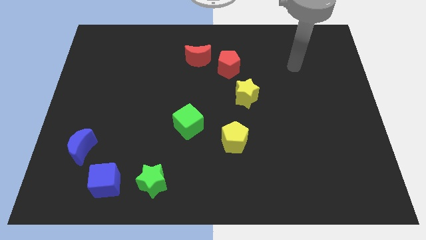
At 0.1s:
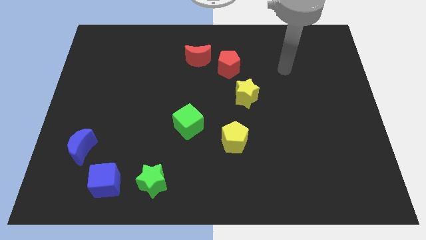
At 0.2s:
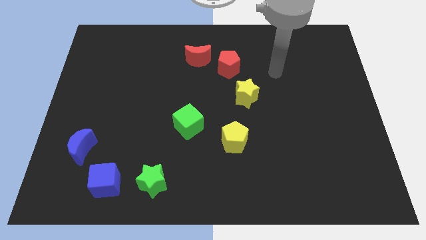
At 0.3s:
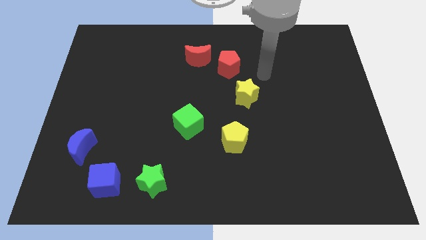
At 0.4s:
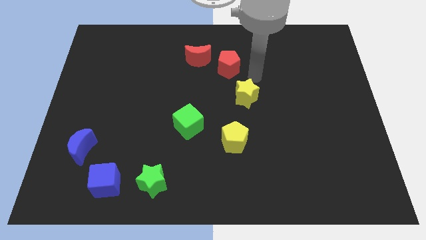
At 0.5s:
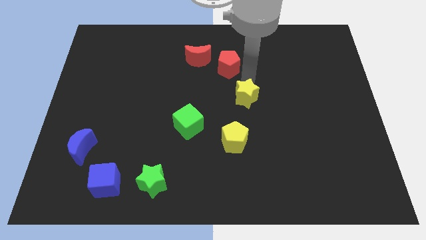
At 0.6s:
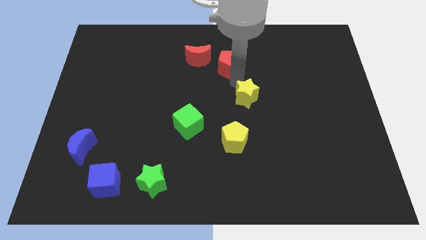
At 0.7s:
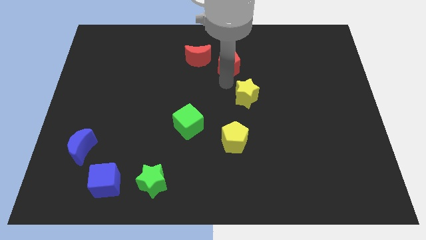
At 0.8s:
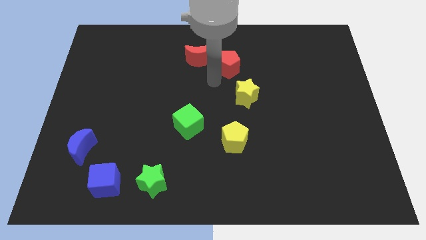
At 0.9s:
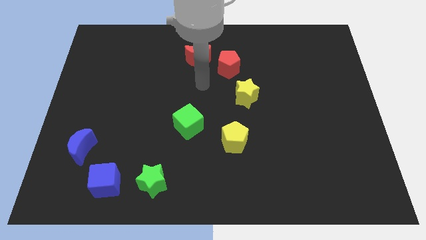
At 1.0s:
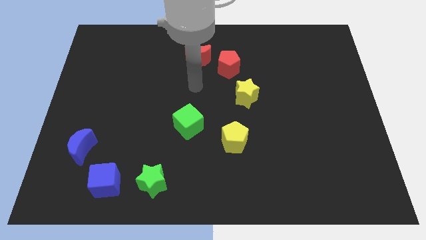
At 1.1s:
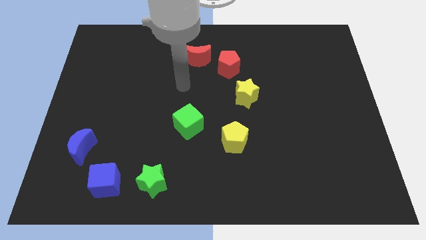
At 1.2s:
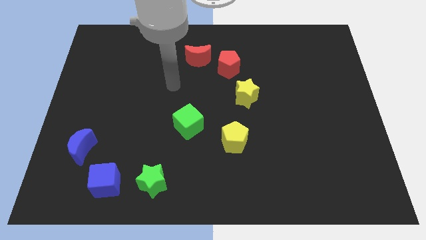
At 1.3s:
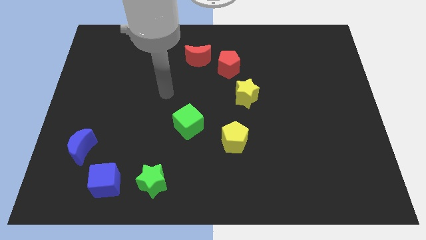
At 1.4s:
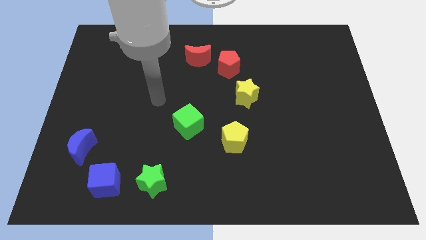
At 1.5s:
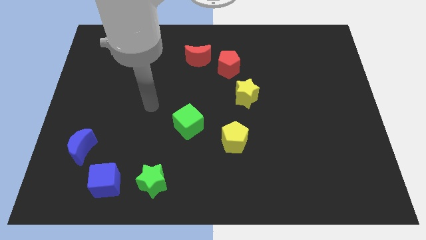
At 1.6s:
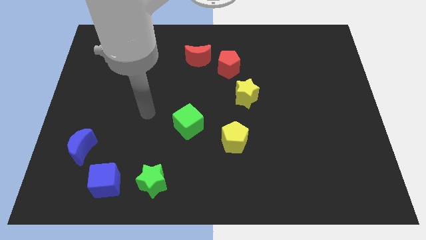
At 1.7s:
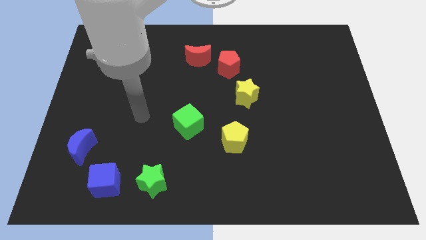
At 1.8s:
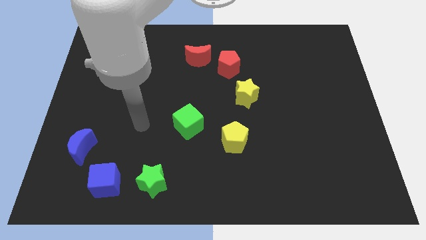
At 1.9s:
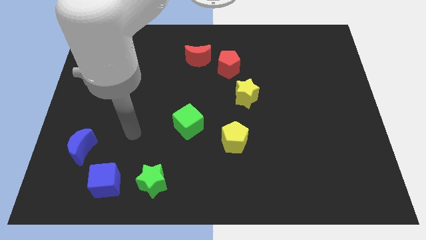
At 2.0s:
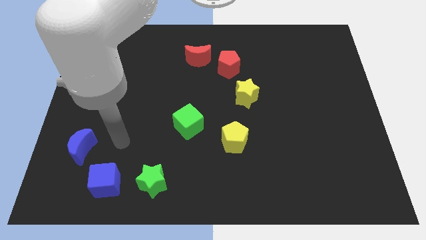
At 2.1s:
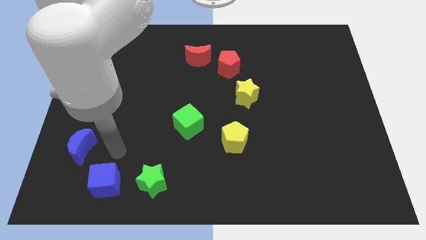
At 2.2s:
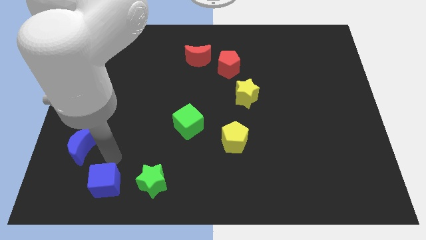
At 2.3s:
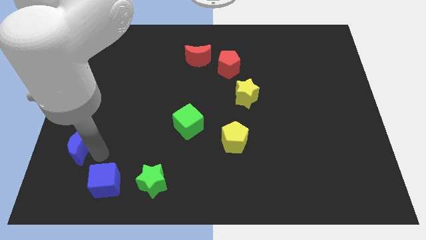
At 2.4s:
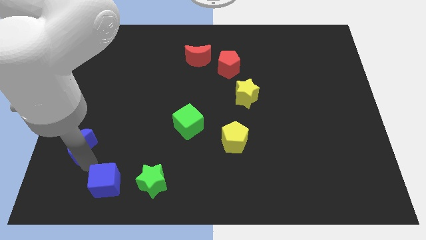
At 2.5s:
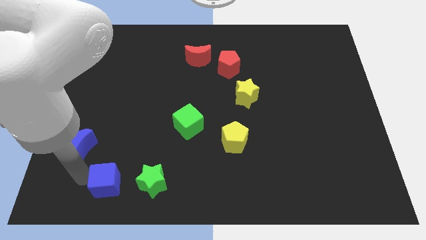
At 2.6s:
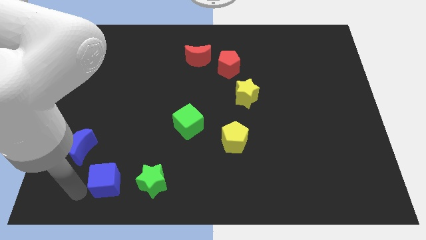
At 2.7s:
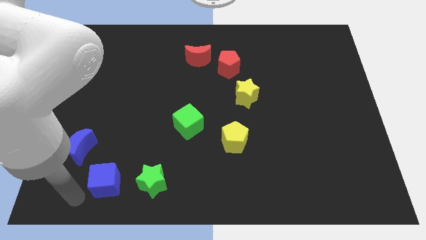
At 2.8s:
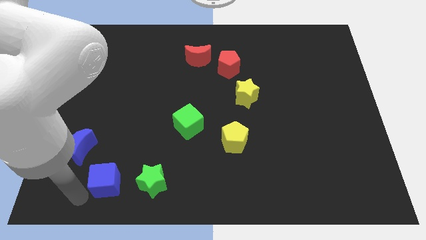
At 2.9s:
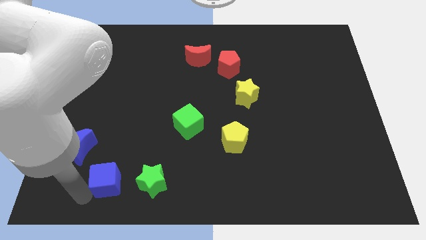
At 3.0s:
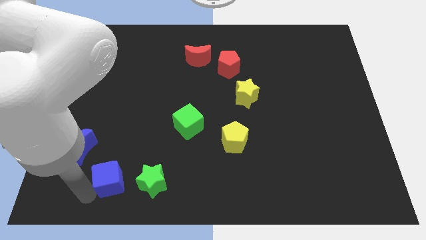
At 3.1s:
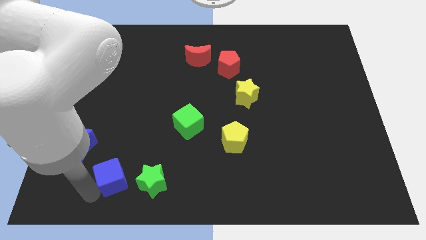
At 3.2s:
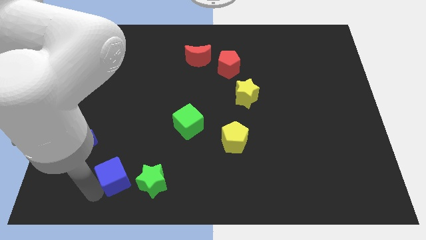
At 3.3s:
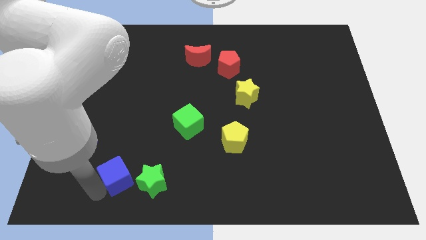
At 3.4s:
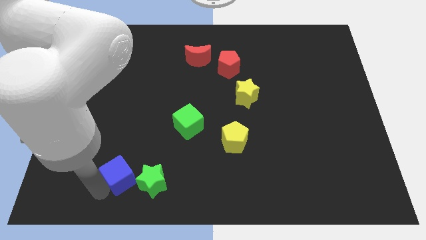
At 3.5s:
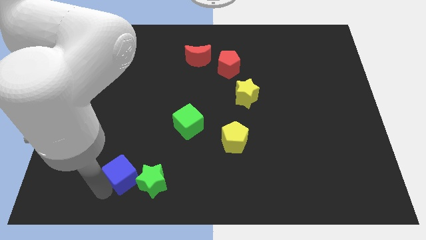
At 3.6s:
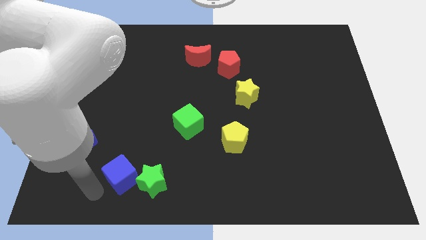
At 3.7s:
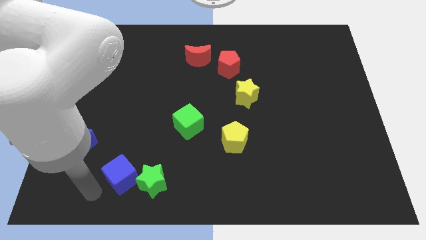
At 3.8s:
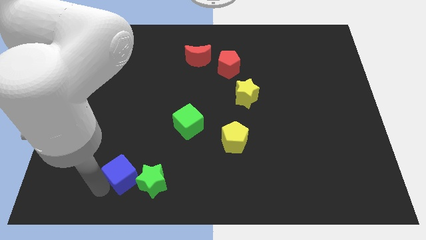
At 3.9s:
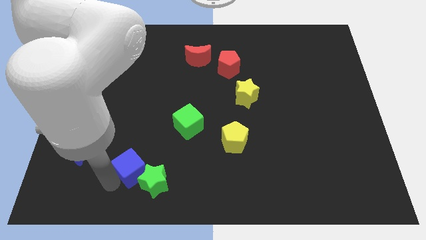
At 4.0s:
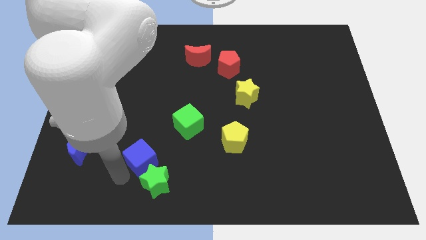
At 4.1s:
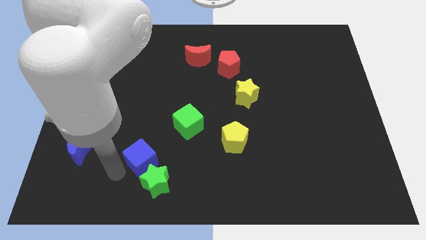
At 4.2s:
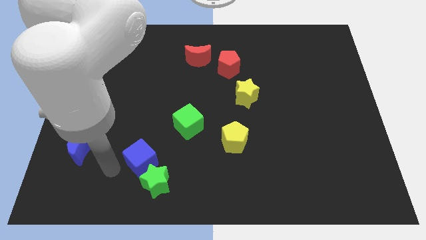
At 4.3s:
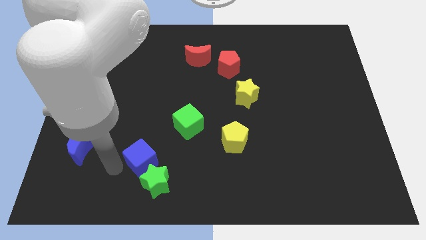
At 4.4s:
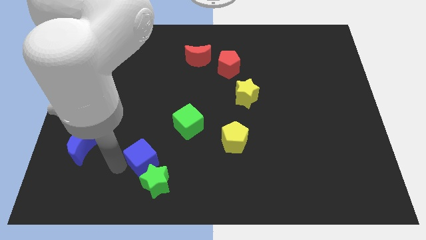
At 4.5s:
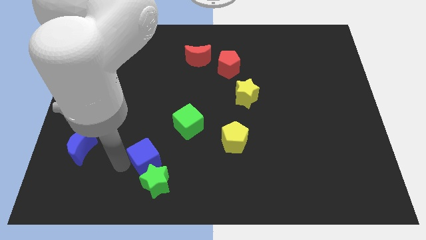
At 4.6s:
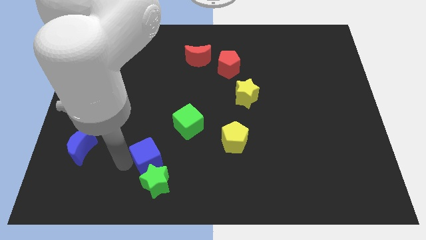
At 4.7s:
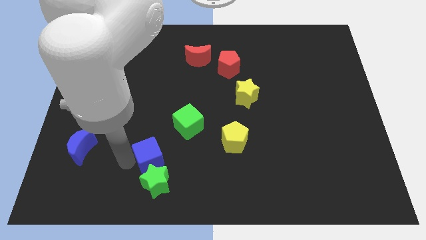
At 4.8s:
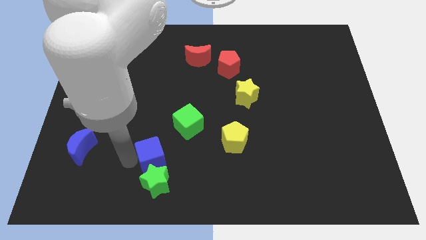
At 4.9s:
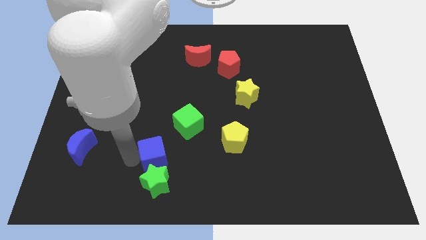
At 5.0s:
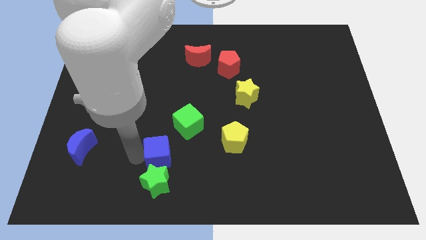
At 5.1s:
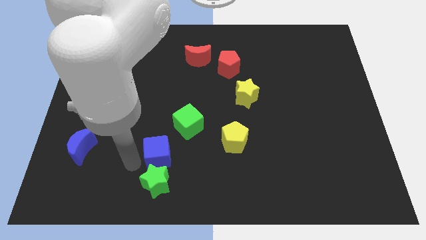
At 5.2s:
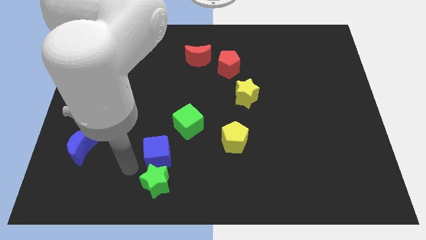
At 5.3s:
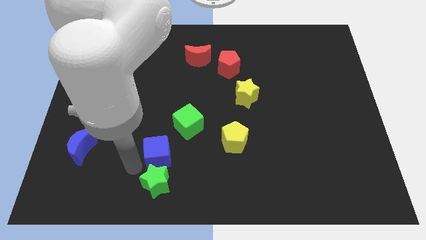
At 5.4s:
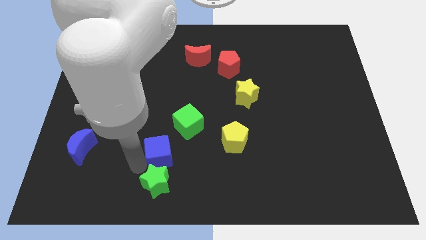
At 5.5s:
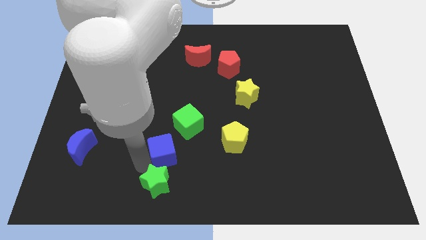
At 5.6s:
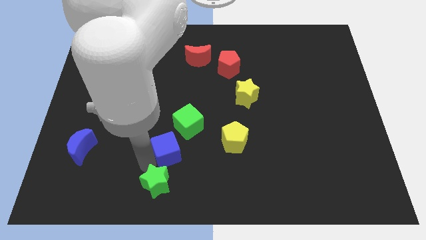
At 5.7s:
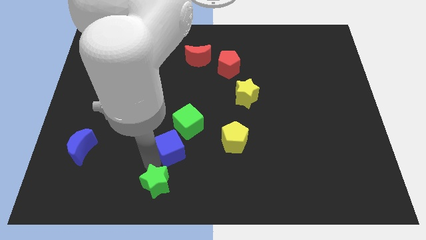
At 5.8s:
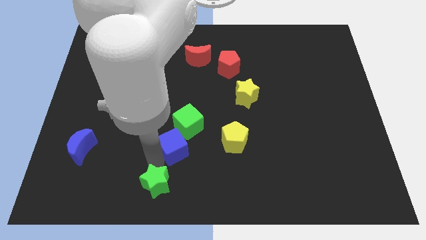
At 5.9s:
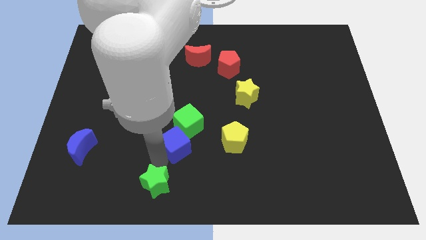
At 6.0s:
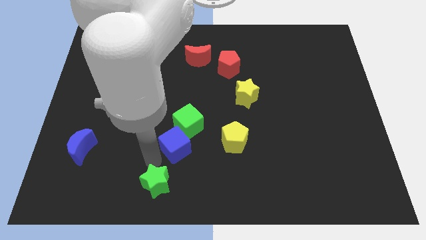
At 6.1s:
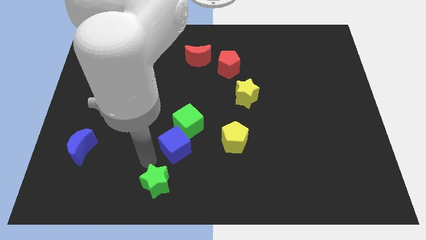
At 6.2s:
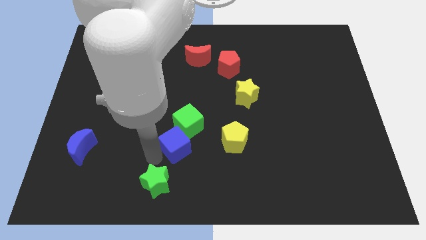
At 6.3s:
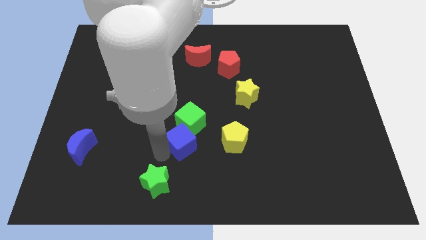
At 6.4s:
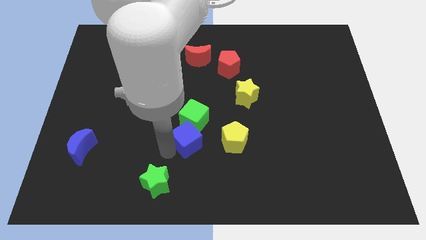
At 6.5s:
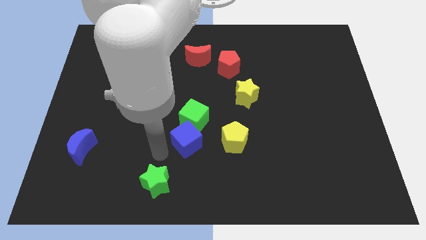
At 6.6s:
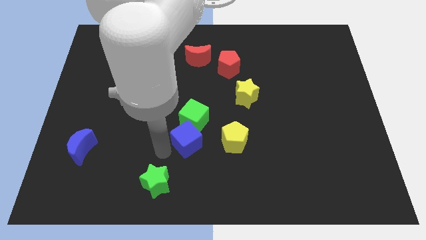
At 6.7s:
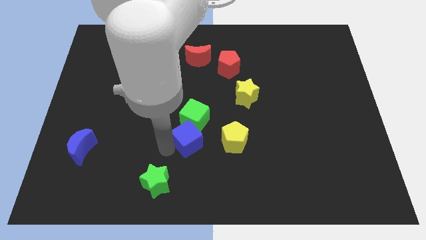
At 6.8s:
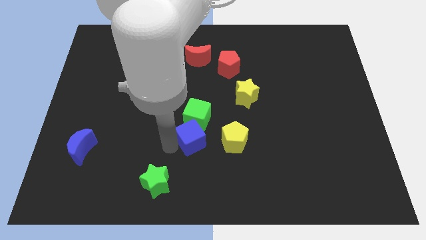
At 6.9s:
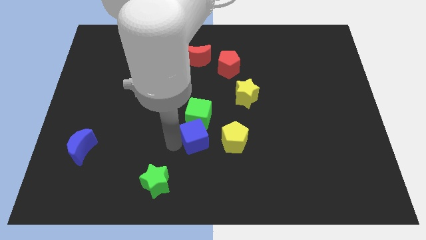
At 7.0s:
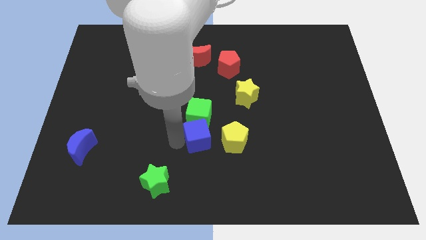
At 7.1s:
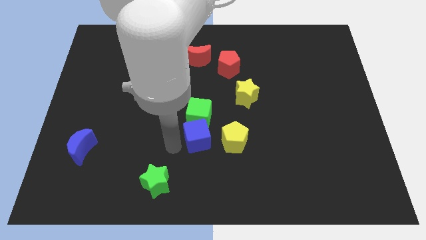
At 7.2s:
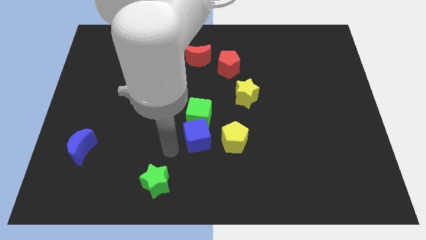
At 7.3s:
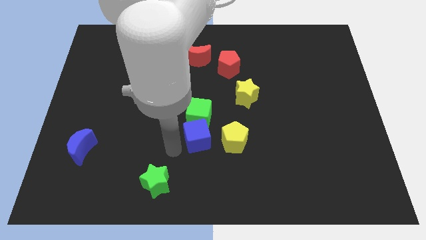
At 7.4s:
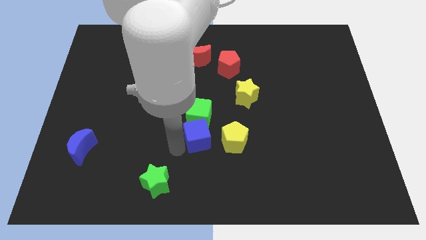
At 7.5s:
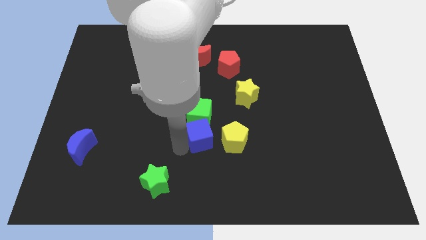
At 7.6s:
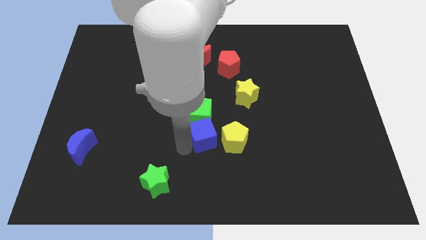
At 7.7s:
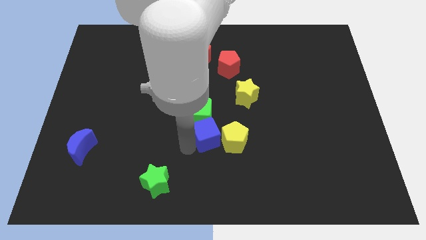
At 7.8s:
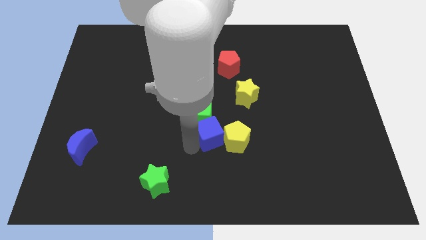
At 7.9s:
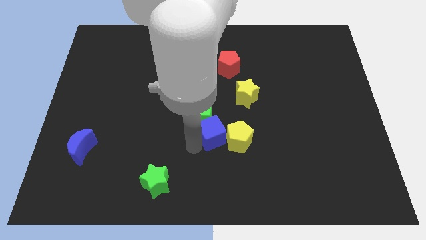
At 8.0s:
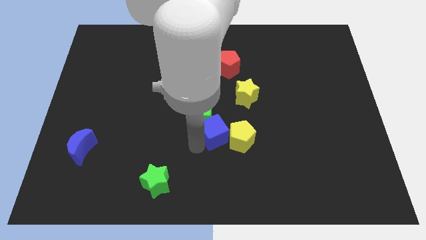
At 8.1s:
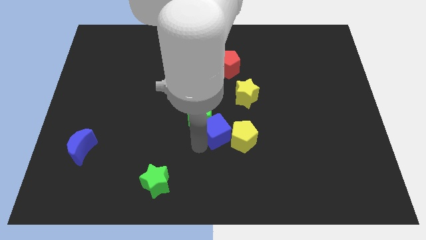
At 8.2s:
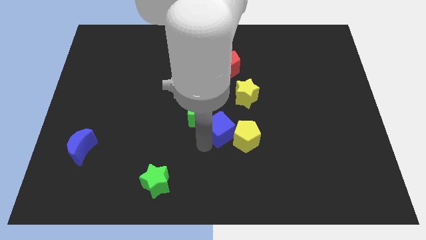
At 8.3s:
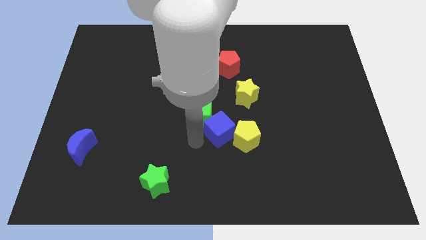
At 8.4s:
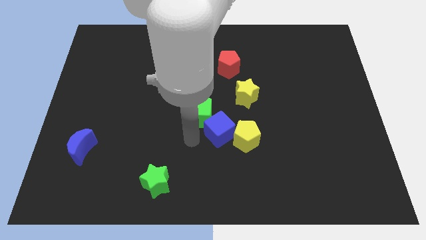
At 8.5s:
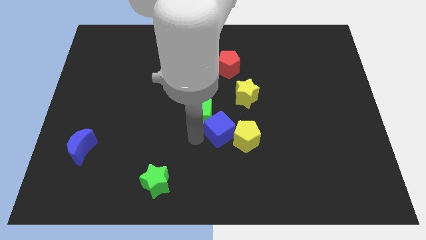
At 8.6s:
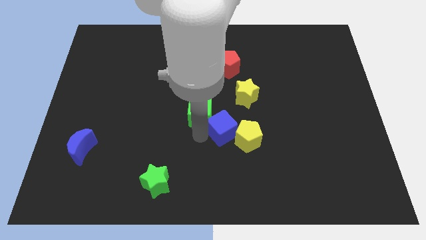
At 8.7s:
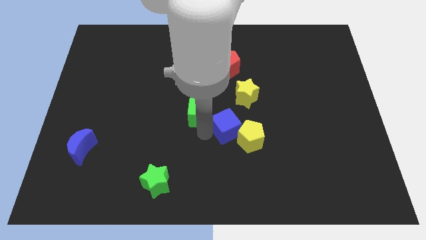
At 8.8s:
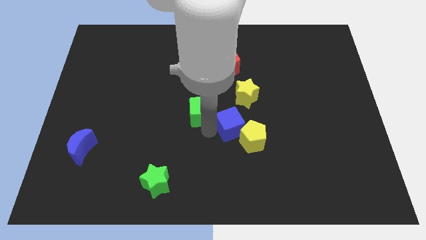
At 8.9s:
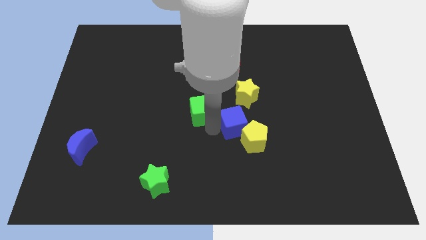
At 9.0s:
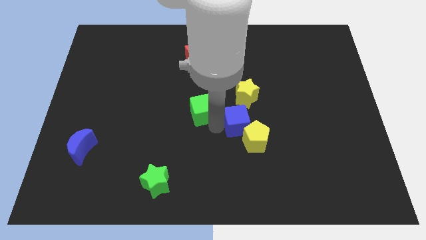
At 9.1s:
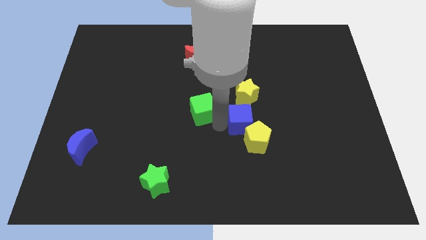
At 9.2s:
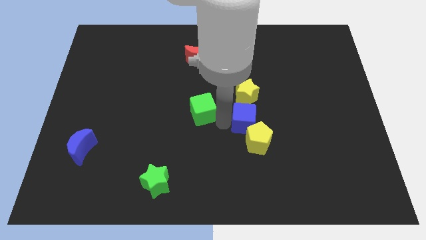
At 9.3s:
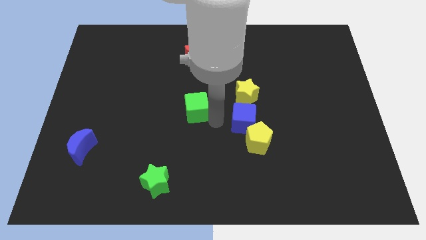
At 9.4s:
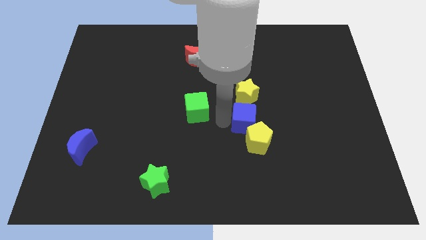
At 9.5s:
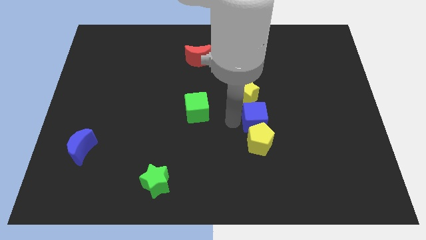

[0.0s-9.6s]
put the blue cube to the top right of the yellow pentagon
